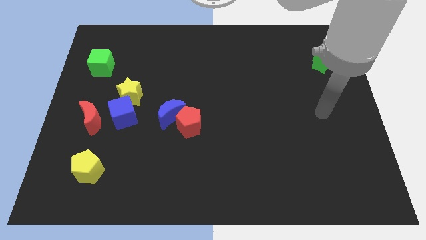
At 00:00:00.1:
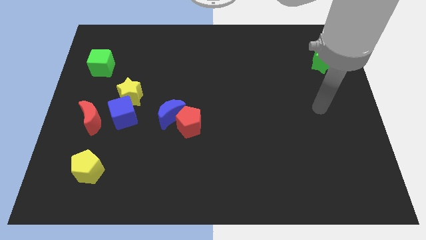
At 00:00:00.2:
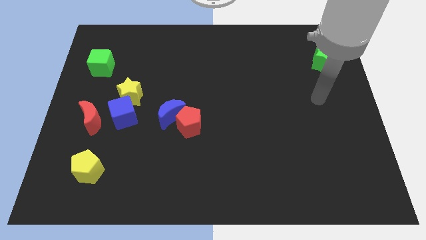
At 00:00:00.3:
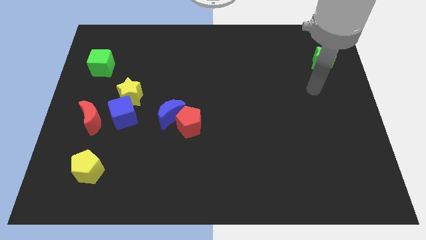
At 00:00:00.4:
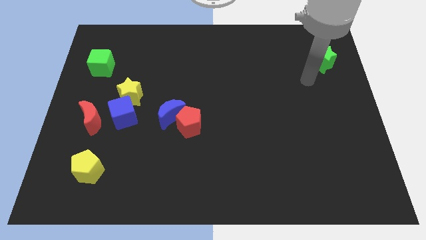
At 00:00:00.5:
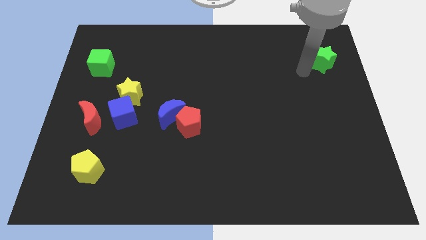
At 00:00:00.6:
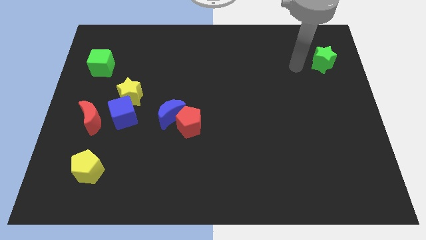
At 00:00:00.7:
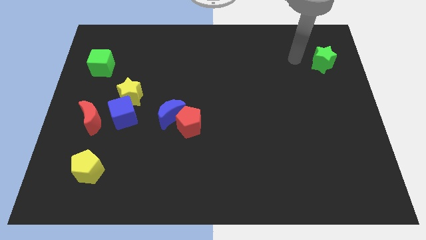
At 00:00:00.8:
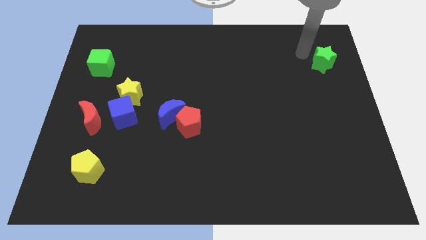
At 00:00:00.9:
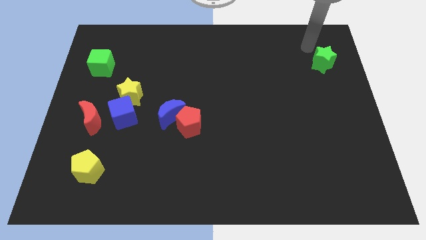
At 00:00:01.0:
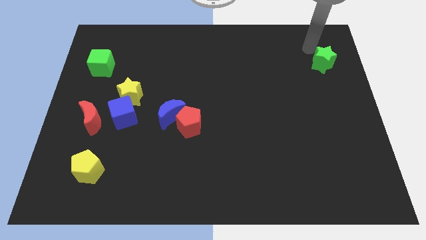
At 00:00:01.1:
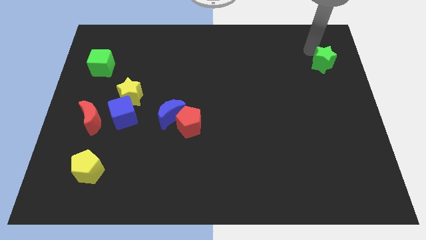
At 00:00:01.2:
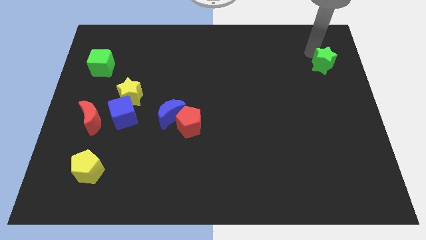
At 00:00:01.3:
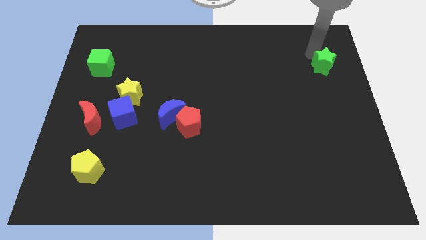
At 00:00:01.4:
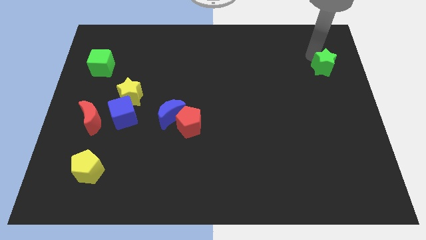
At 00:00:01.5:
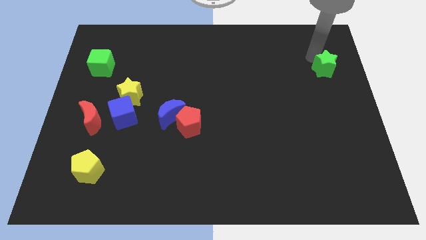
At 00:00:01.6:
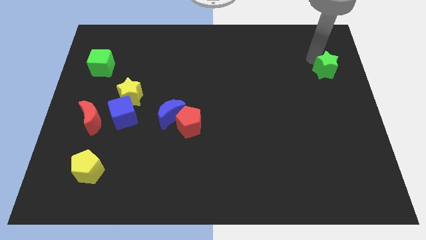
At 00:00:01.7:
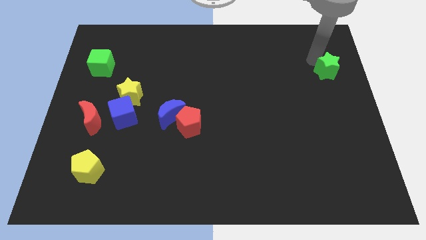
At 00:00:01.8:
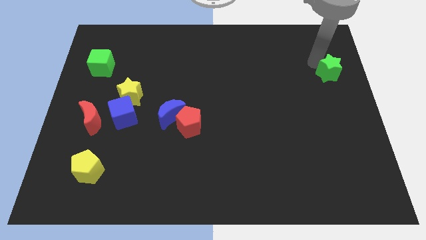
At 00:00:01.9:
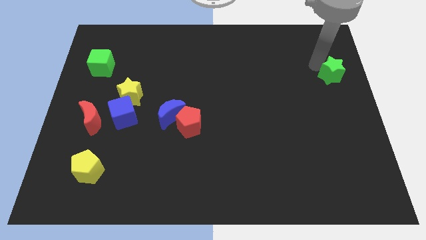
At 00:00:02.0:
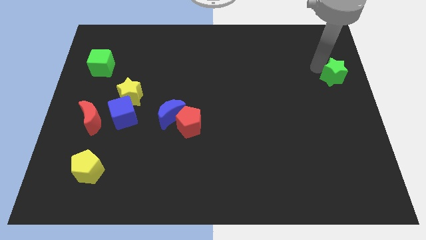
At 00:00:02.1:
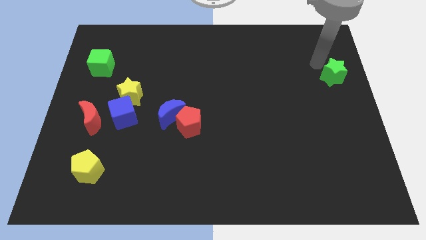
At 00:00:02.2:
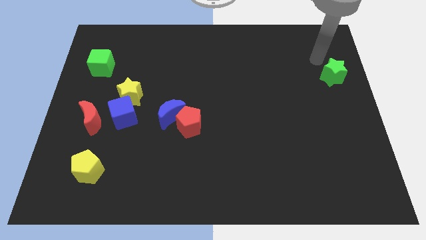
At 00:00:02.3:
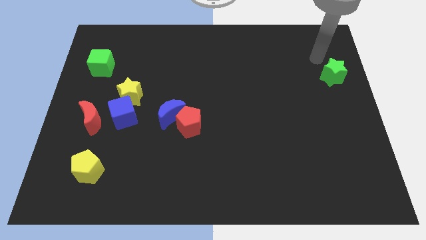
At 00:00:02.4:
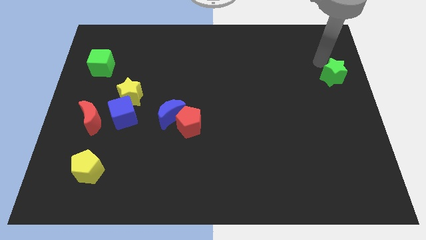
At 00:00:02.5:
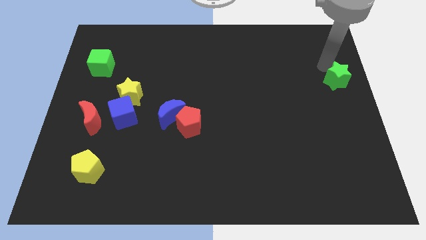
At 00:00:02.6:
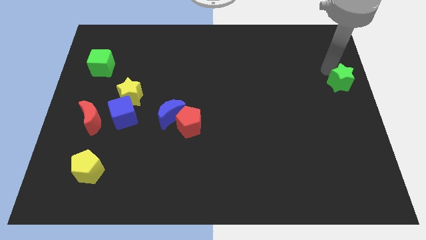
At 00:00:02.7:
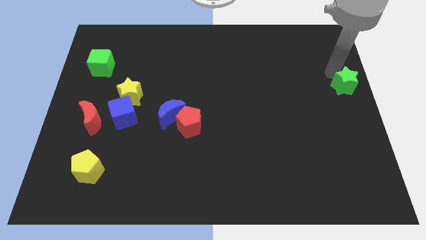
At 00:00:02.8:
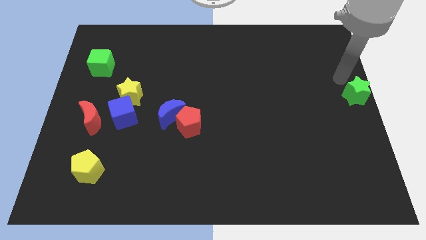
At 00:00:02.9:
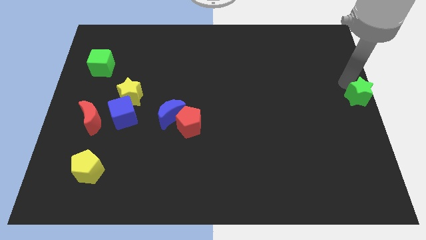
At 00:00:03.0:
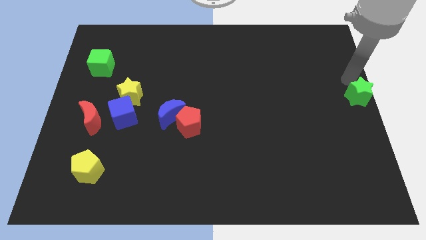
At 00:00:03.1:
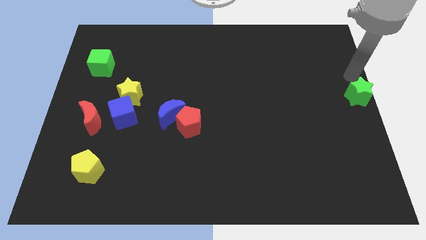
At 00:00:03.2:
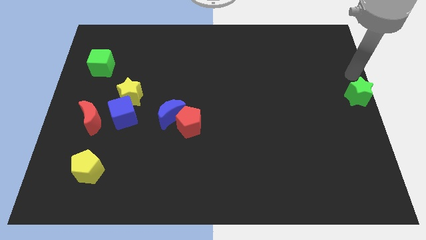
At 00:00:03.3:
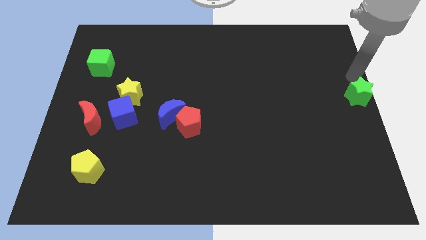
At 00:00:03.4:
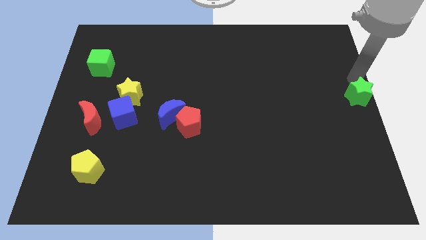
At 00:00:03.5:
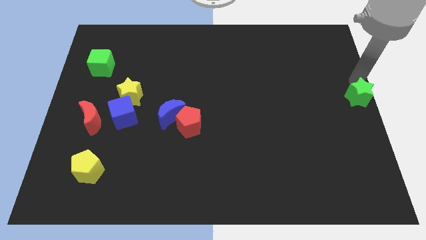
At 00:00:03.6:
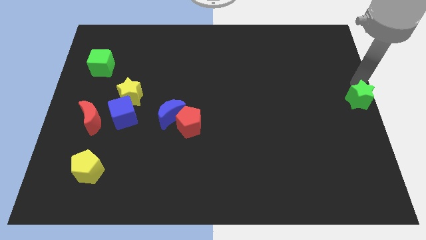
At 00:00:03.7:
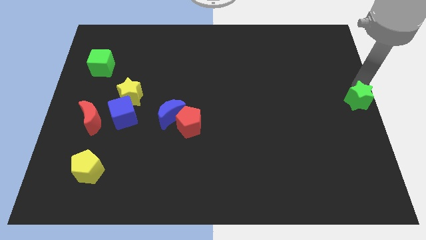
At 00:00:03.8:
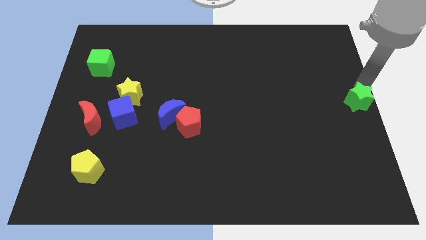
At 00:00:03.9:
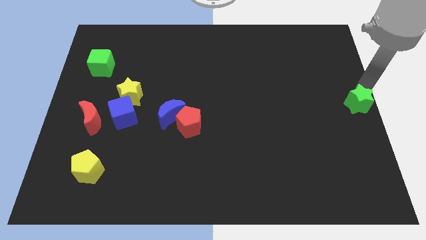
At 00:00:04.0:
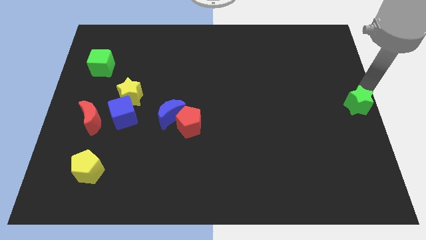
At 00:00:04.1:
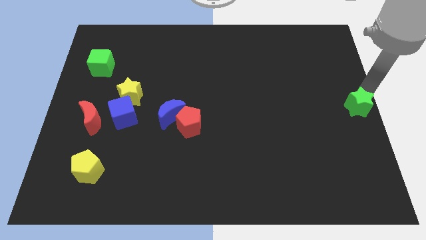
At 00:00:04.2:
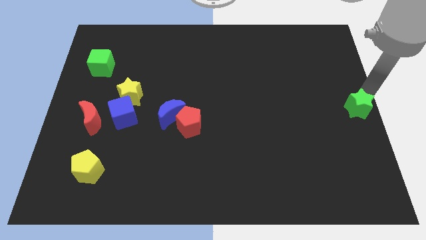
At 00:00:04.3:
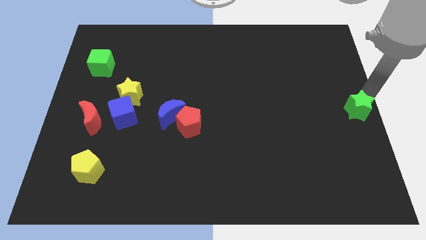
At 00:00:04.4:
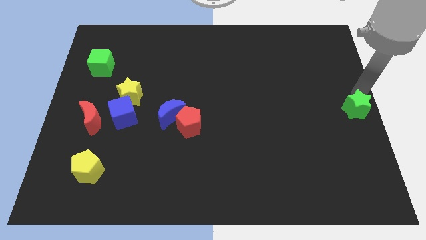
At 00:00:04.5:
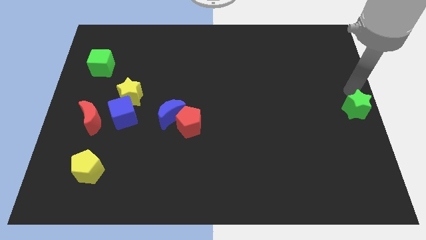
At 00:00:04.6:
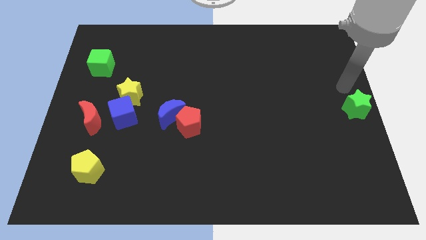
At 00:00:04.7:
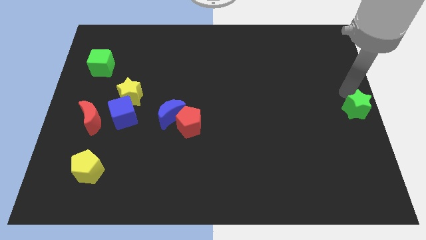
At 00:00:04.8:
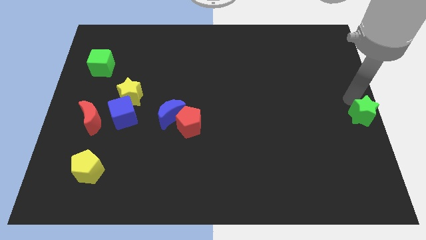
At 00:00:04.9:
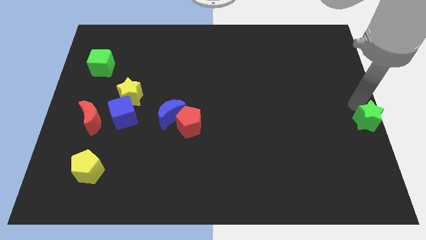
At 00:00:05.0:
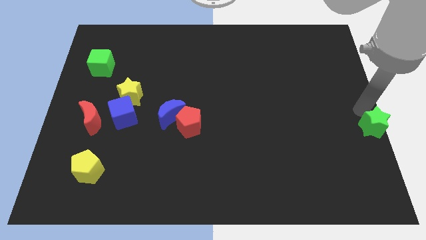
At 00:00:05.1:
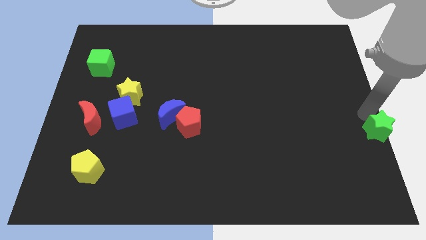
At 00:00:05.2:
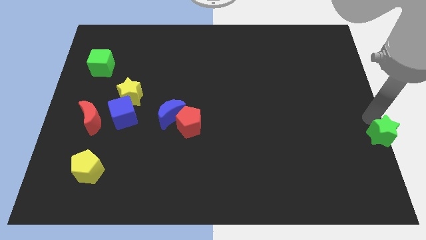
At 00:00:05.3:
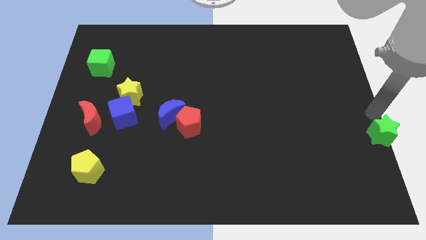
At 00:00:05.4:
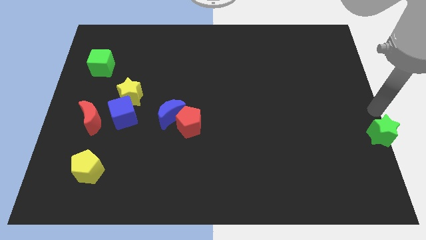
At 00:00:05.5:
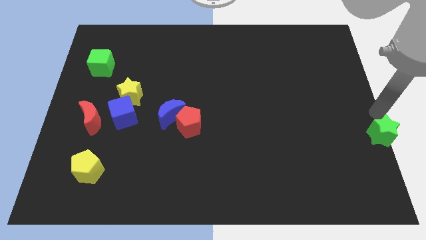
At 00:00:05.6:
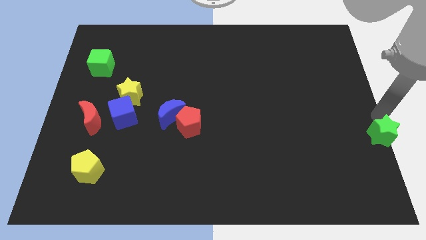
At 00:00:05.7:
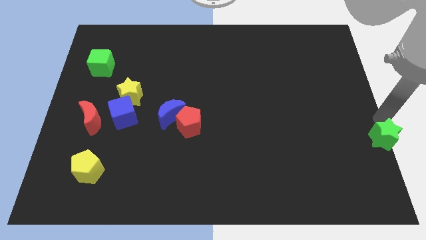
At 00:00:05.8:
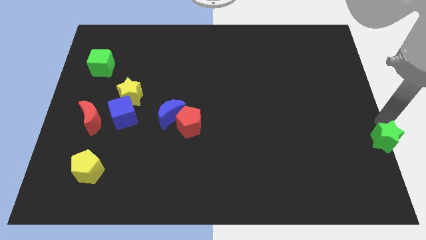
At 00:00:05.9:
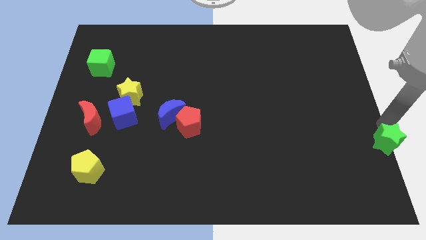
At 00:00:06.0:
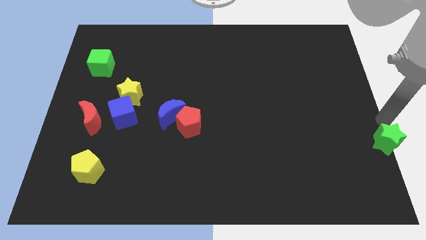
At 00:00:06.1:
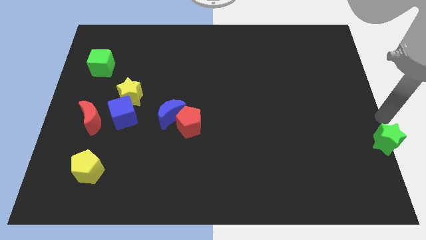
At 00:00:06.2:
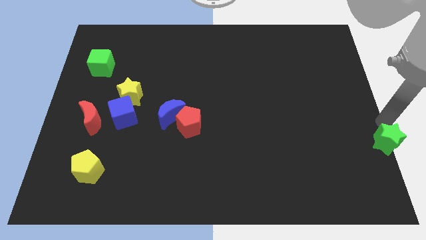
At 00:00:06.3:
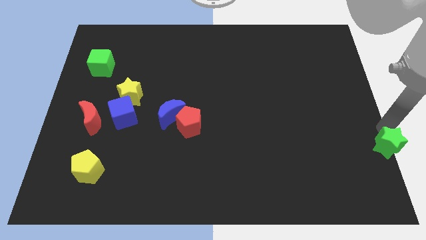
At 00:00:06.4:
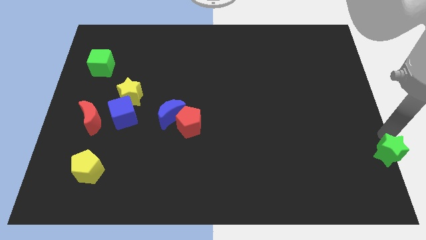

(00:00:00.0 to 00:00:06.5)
slide the green star to the lower right corner

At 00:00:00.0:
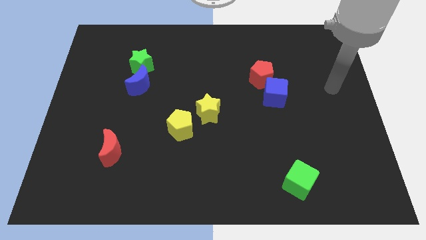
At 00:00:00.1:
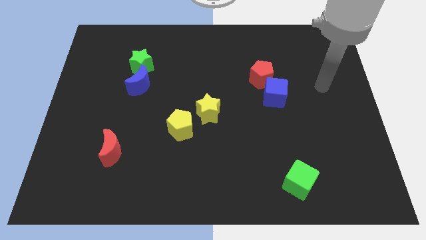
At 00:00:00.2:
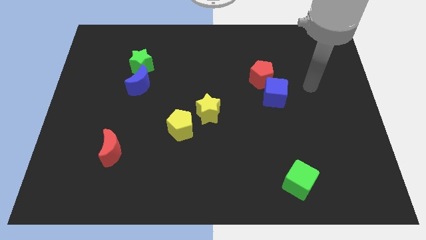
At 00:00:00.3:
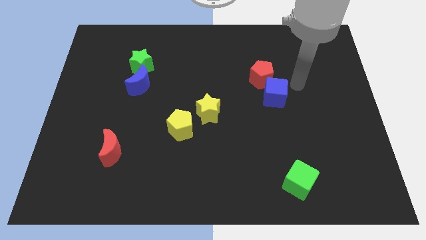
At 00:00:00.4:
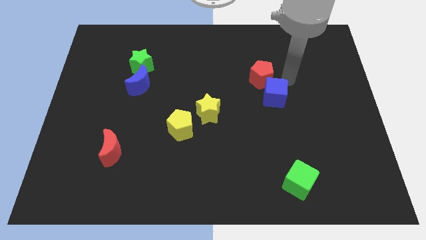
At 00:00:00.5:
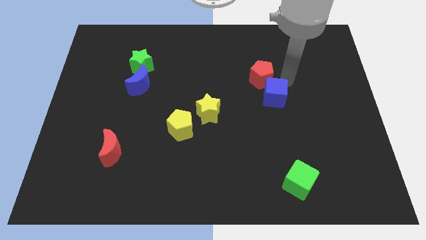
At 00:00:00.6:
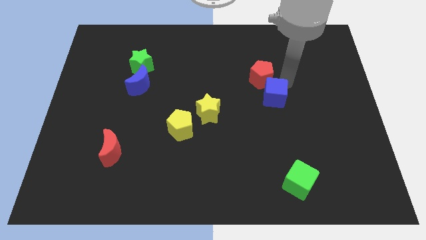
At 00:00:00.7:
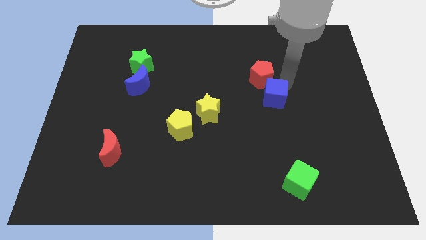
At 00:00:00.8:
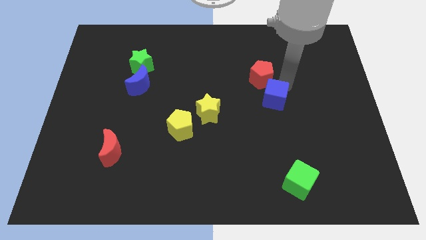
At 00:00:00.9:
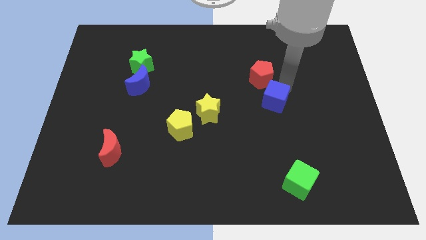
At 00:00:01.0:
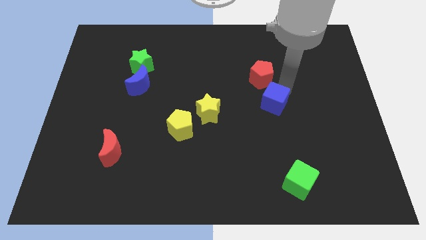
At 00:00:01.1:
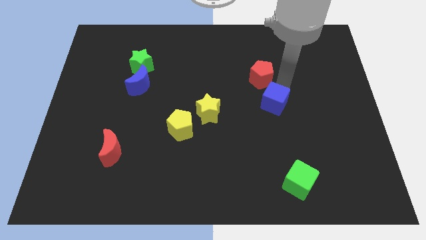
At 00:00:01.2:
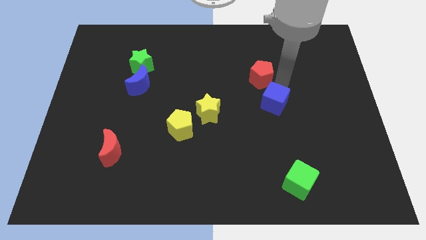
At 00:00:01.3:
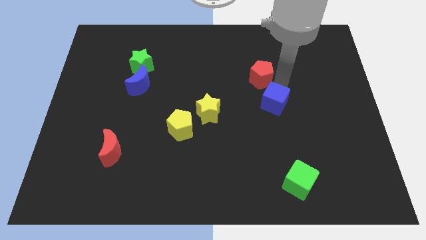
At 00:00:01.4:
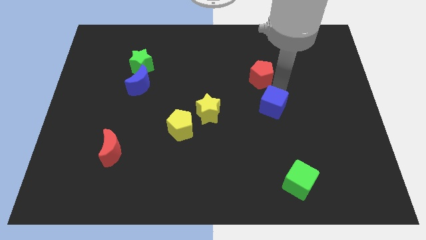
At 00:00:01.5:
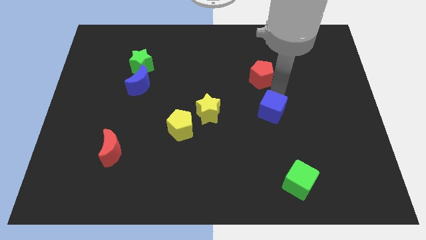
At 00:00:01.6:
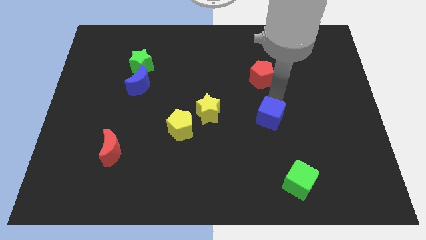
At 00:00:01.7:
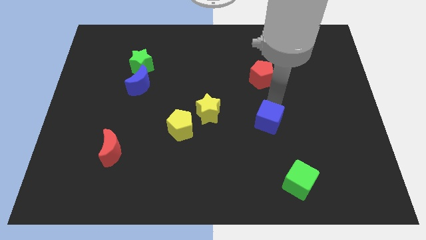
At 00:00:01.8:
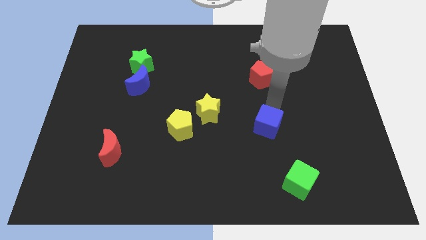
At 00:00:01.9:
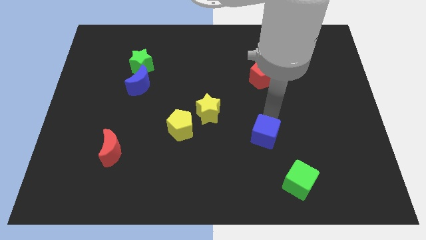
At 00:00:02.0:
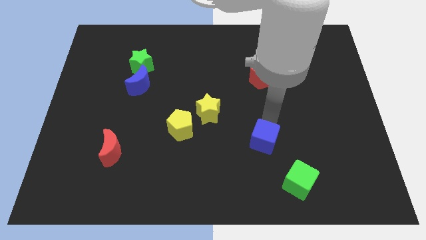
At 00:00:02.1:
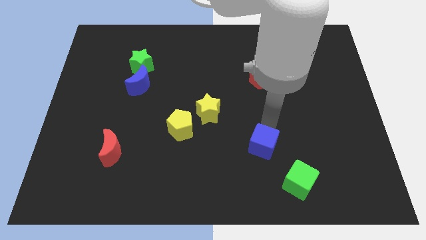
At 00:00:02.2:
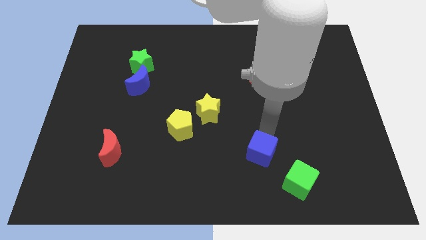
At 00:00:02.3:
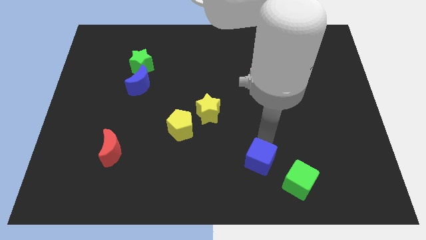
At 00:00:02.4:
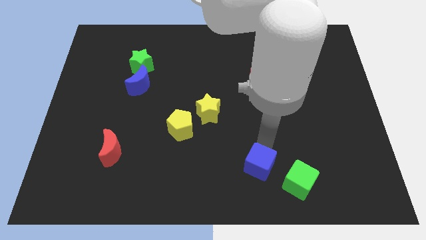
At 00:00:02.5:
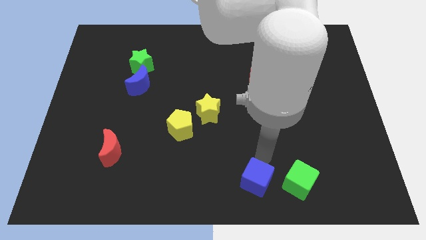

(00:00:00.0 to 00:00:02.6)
move the blue cube to the bottom side
